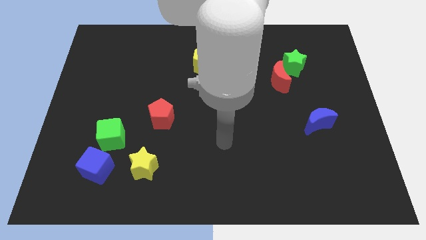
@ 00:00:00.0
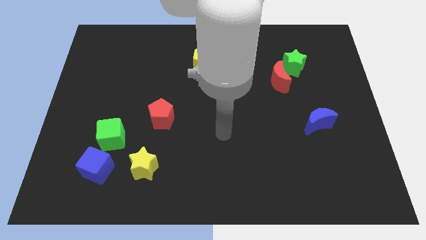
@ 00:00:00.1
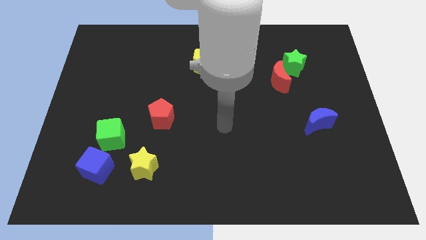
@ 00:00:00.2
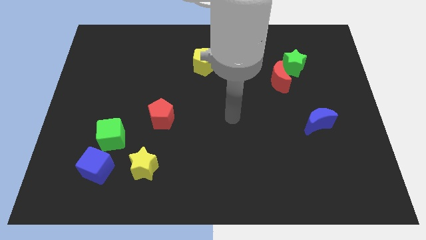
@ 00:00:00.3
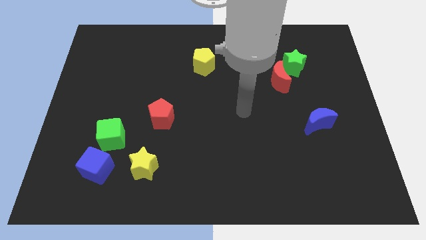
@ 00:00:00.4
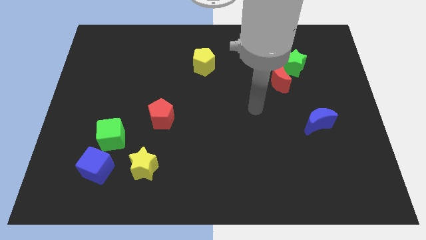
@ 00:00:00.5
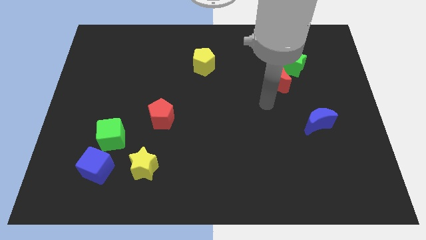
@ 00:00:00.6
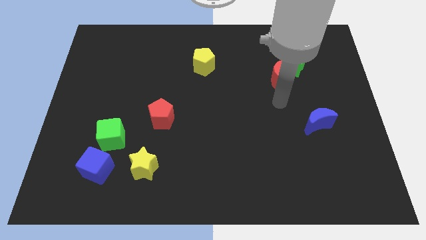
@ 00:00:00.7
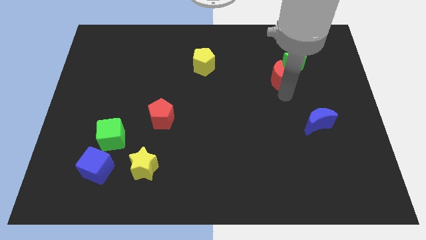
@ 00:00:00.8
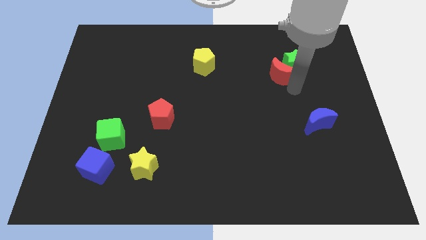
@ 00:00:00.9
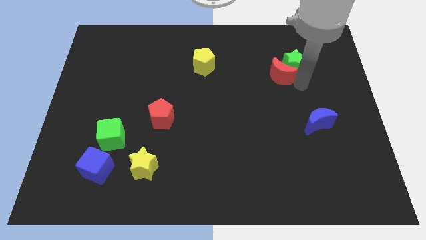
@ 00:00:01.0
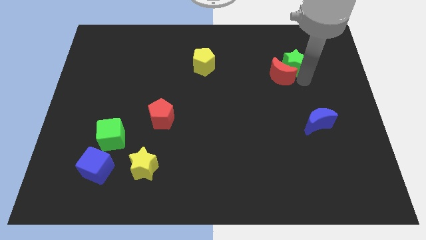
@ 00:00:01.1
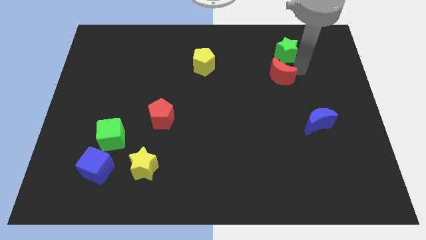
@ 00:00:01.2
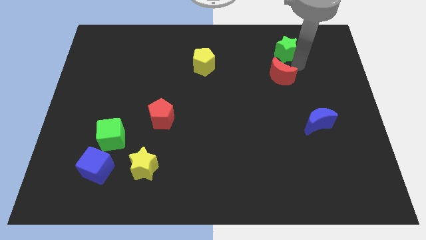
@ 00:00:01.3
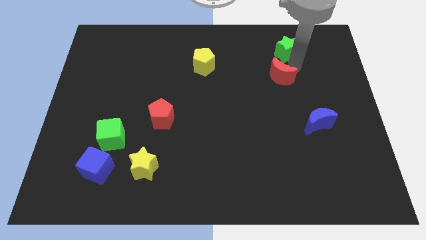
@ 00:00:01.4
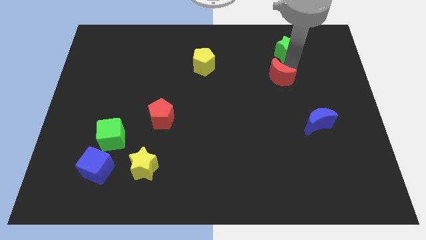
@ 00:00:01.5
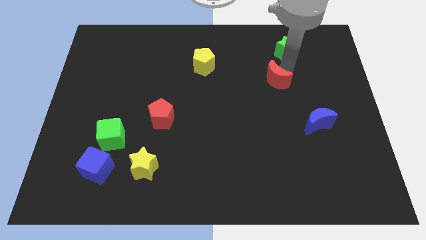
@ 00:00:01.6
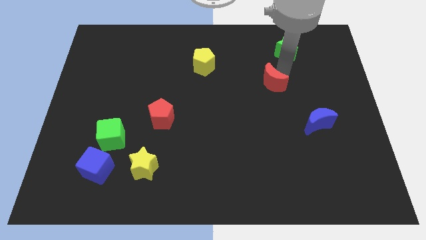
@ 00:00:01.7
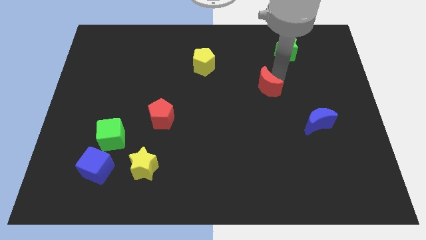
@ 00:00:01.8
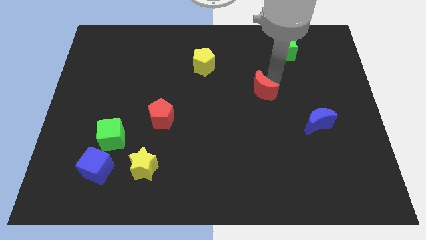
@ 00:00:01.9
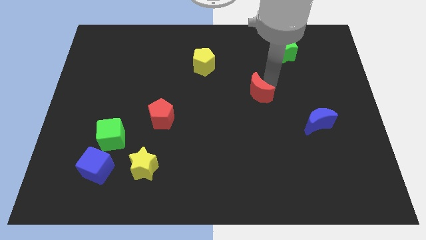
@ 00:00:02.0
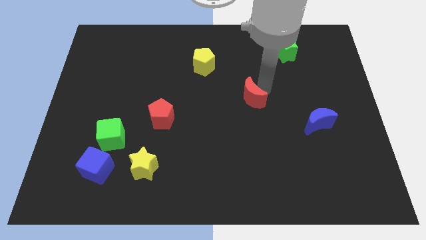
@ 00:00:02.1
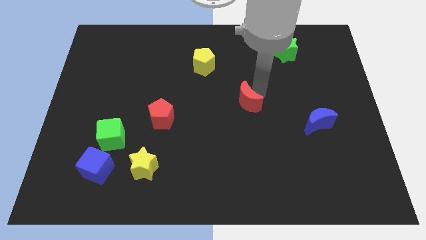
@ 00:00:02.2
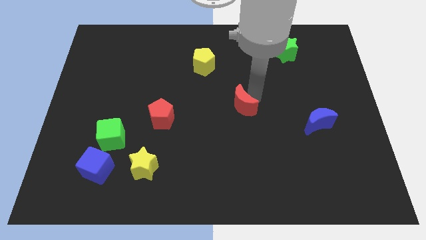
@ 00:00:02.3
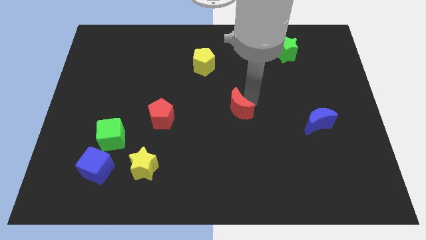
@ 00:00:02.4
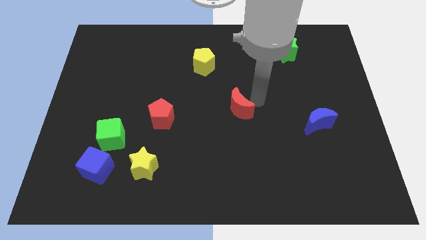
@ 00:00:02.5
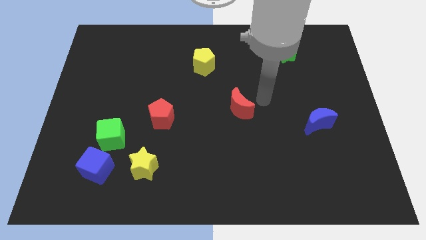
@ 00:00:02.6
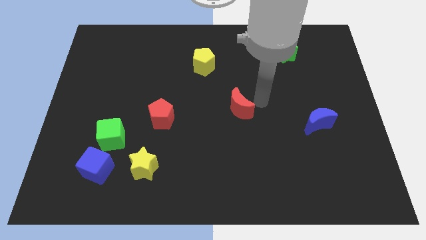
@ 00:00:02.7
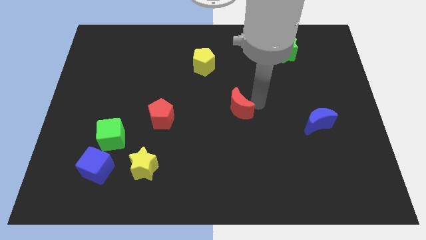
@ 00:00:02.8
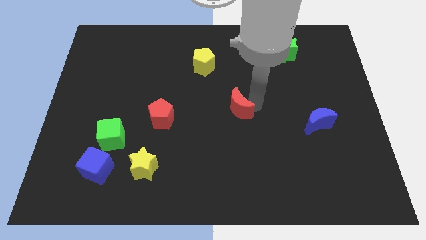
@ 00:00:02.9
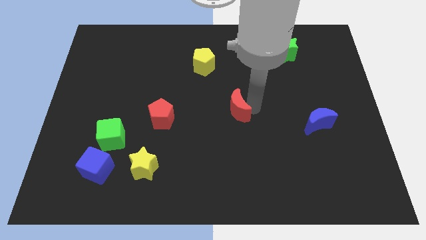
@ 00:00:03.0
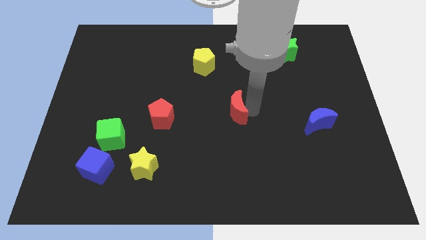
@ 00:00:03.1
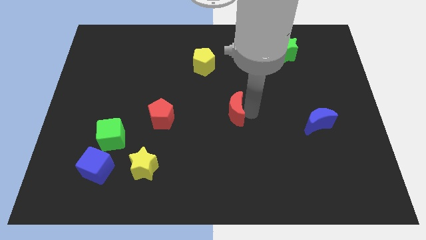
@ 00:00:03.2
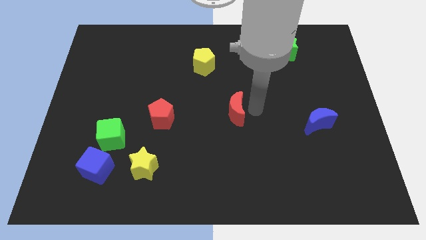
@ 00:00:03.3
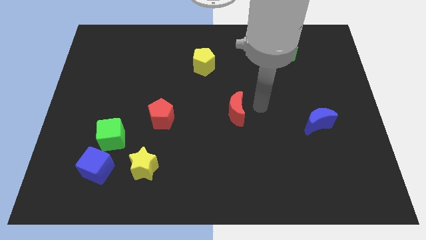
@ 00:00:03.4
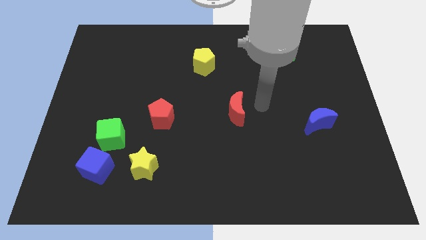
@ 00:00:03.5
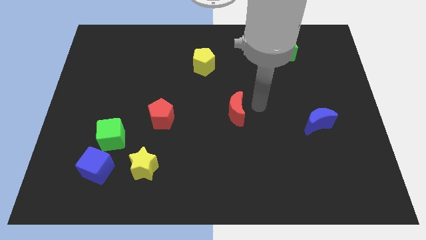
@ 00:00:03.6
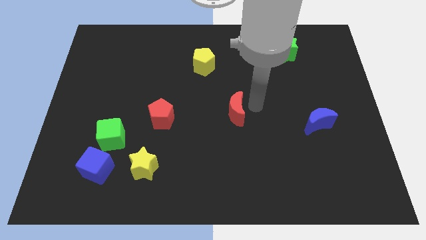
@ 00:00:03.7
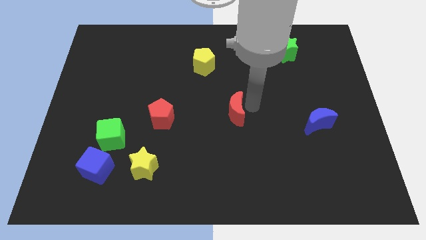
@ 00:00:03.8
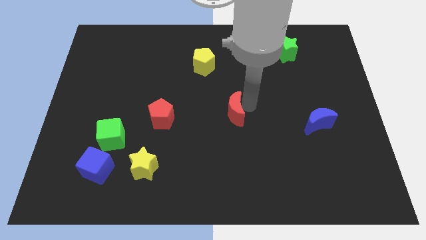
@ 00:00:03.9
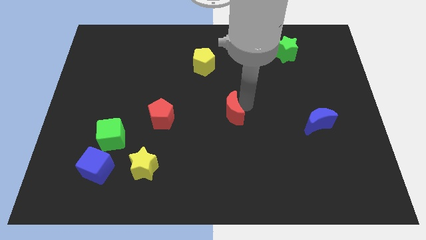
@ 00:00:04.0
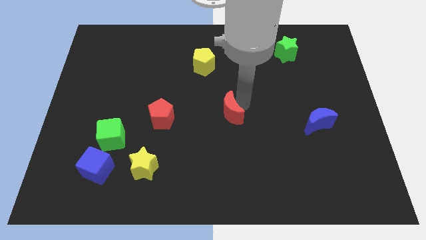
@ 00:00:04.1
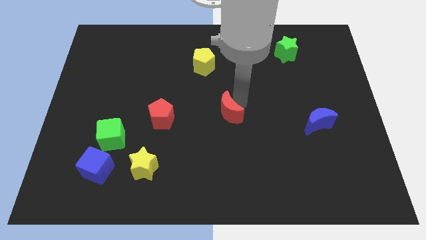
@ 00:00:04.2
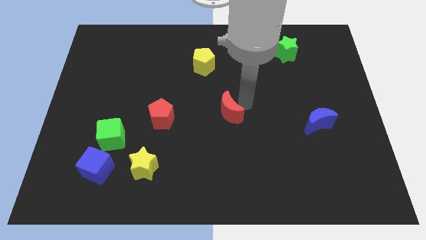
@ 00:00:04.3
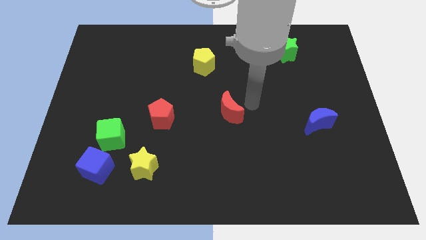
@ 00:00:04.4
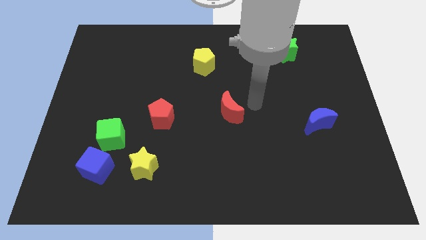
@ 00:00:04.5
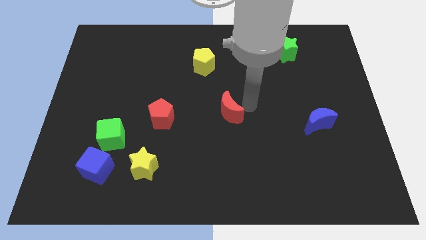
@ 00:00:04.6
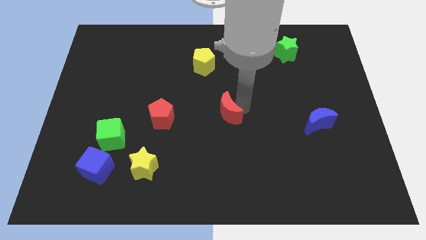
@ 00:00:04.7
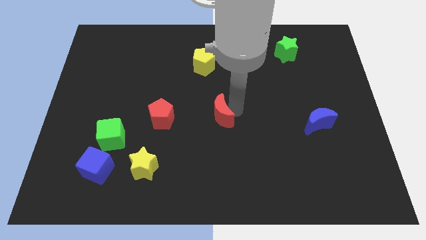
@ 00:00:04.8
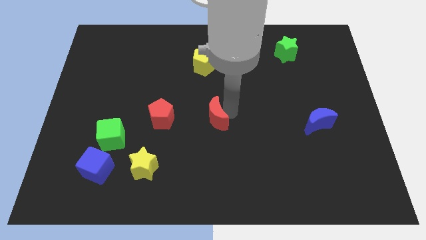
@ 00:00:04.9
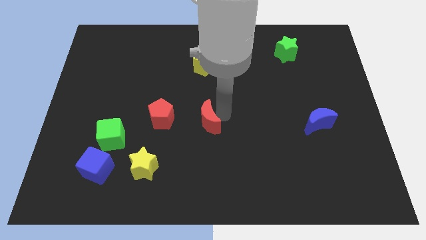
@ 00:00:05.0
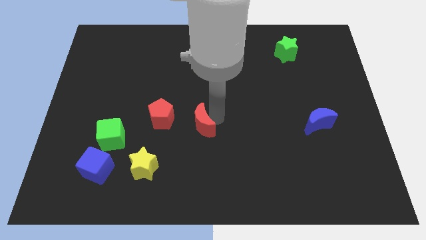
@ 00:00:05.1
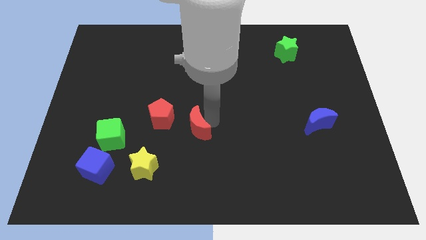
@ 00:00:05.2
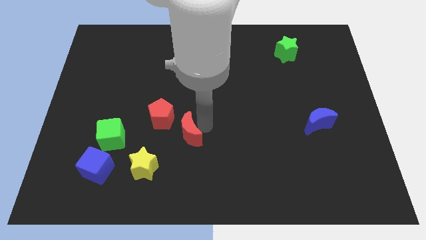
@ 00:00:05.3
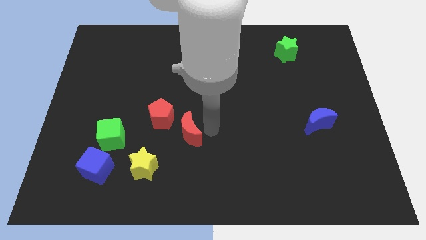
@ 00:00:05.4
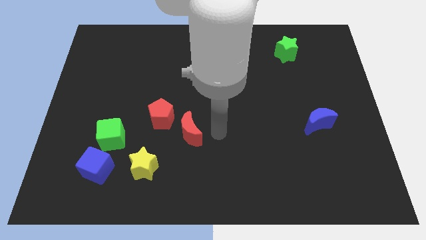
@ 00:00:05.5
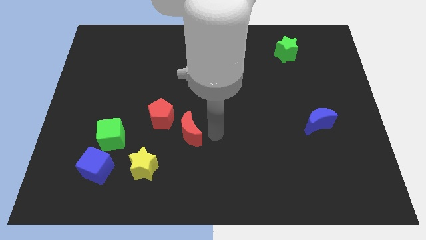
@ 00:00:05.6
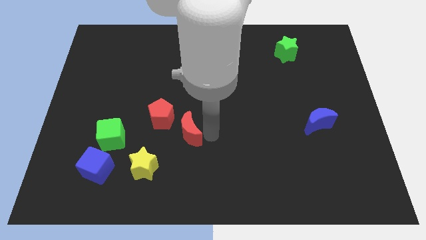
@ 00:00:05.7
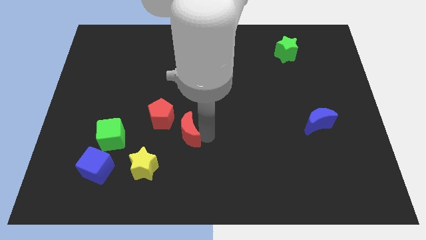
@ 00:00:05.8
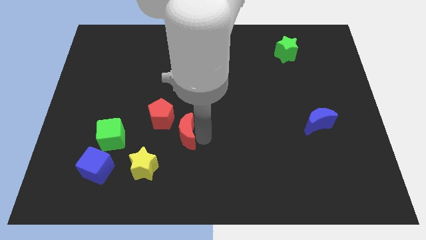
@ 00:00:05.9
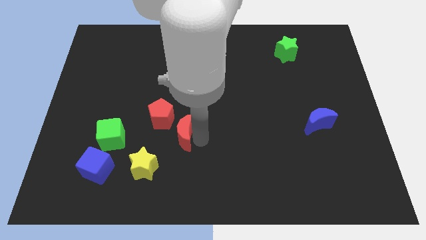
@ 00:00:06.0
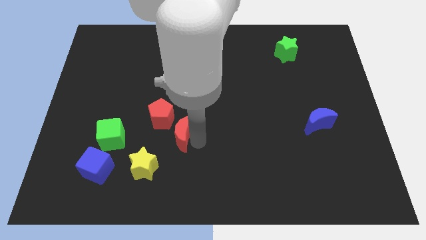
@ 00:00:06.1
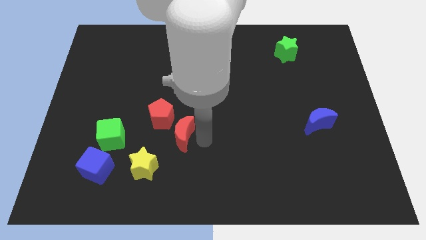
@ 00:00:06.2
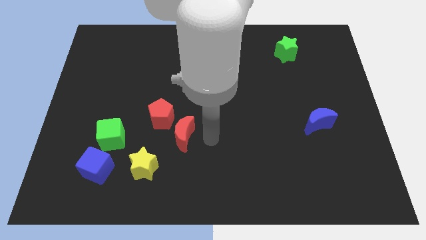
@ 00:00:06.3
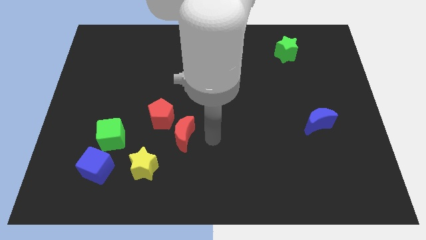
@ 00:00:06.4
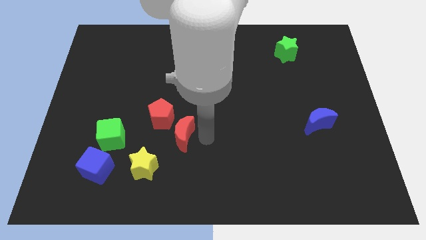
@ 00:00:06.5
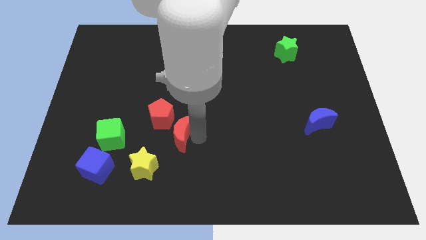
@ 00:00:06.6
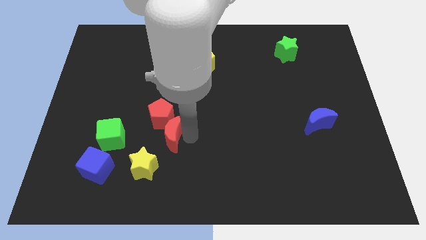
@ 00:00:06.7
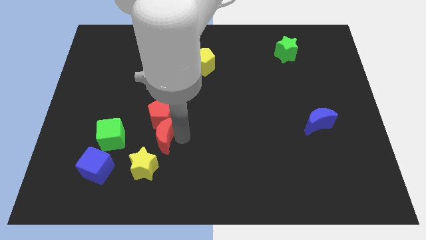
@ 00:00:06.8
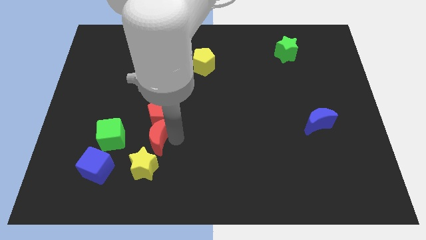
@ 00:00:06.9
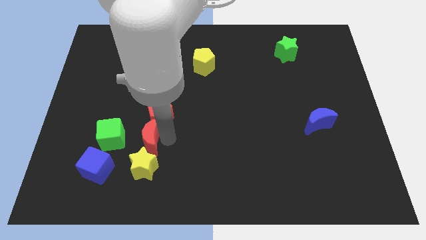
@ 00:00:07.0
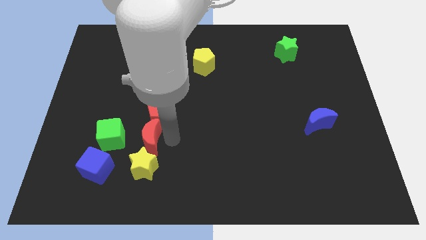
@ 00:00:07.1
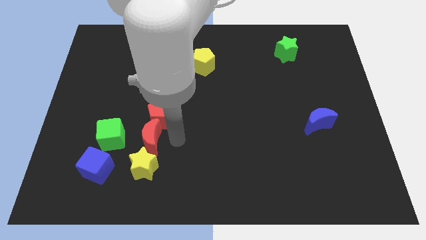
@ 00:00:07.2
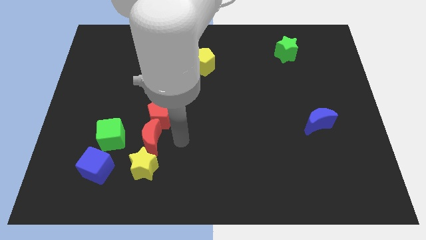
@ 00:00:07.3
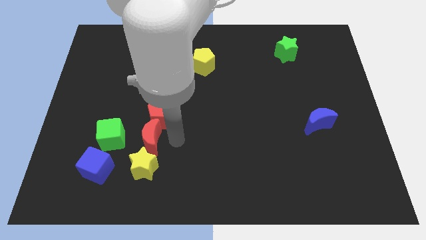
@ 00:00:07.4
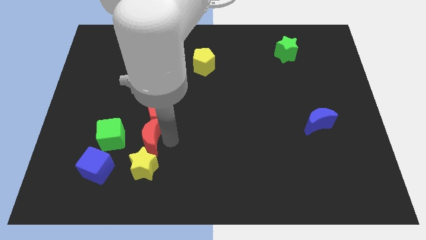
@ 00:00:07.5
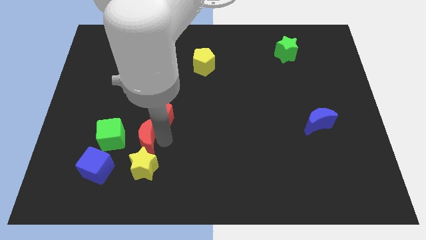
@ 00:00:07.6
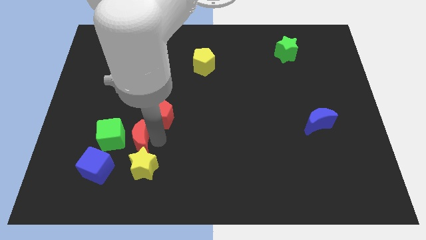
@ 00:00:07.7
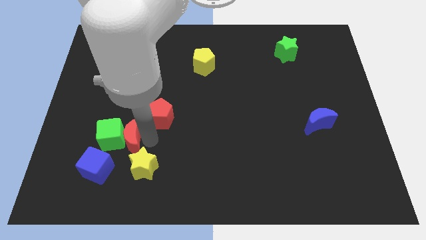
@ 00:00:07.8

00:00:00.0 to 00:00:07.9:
push the red moon to the green cube
